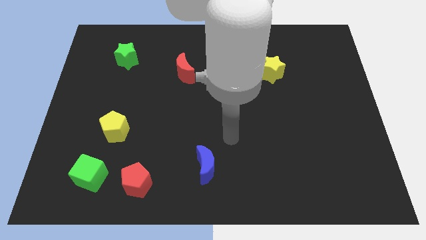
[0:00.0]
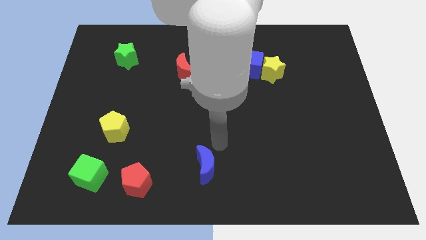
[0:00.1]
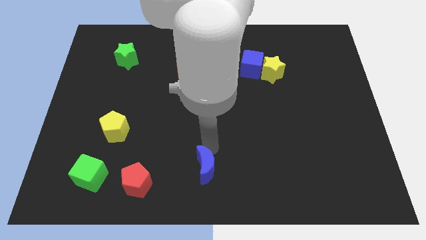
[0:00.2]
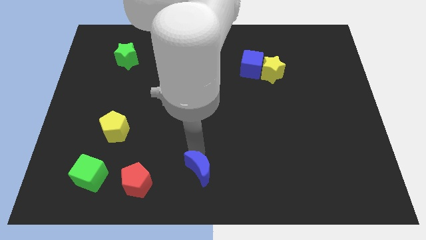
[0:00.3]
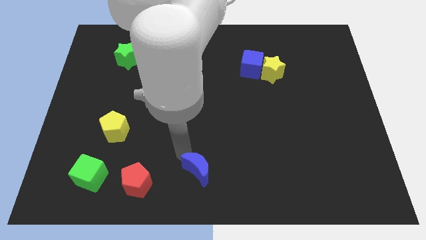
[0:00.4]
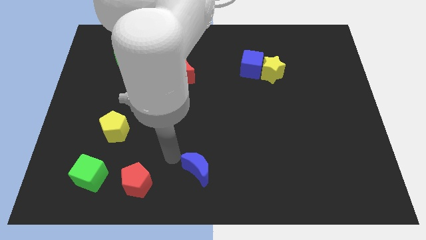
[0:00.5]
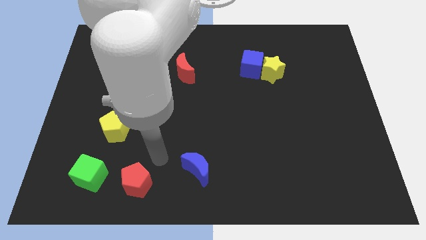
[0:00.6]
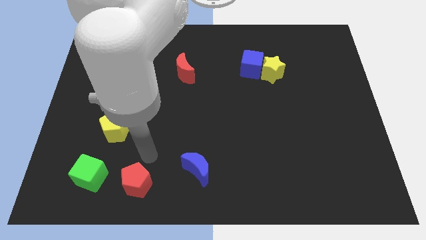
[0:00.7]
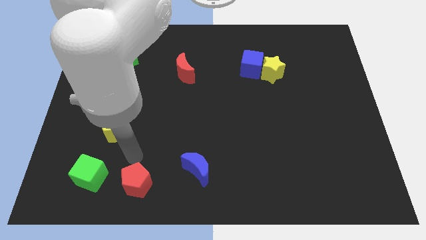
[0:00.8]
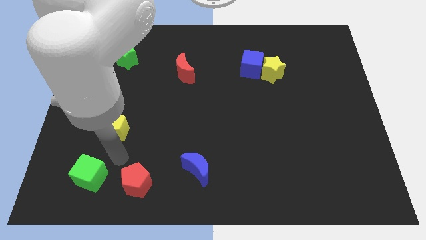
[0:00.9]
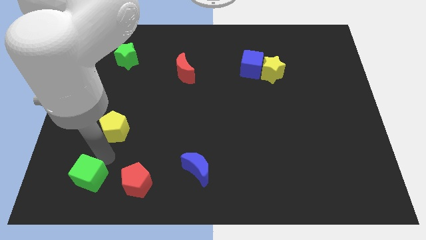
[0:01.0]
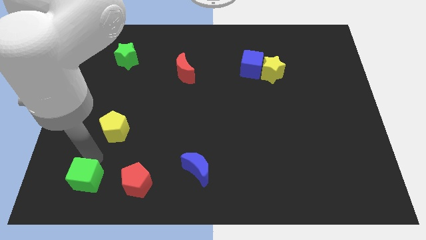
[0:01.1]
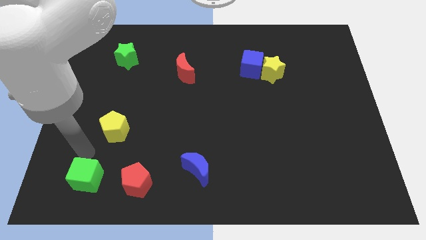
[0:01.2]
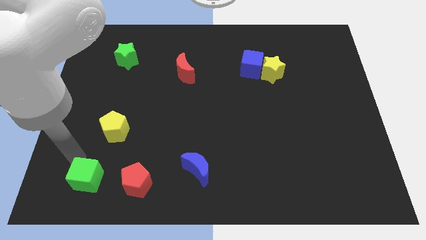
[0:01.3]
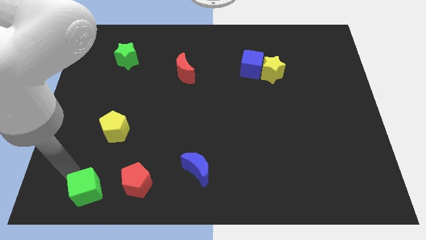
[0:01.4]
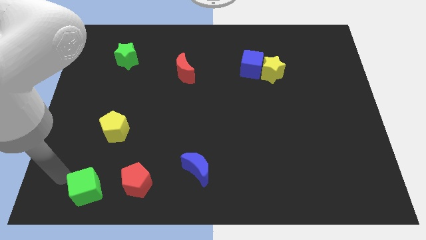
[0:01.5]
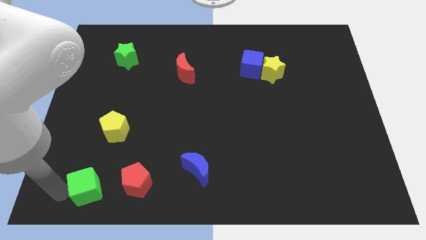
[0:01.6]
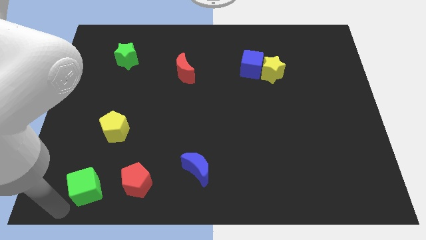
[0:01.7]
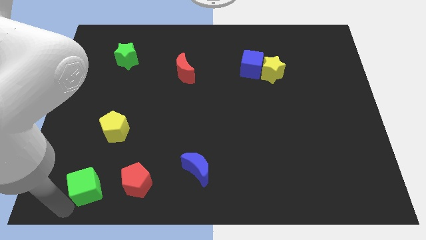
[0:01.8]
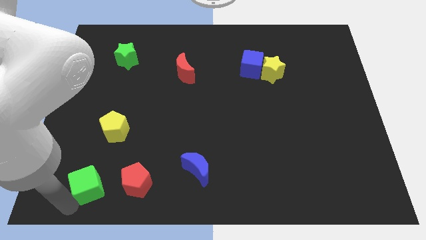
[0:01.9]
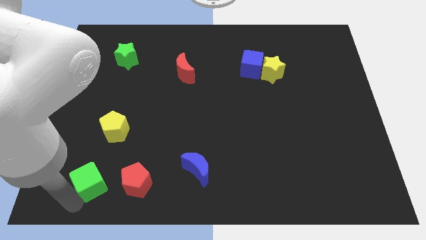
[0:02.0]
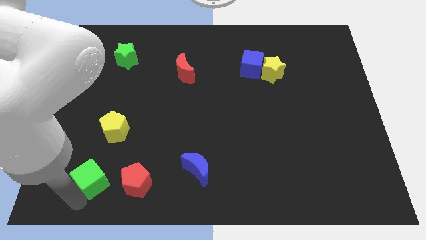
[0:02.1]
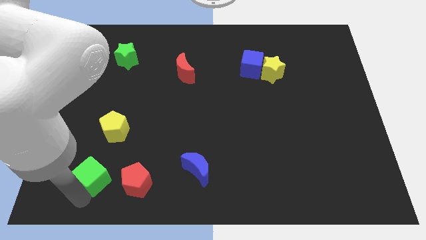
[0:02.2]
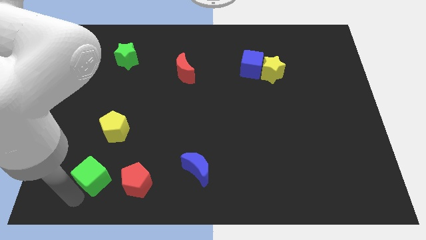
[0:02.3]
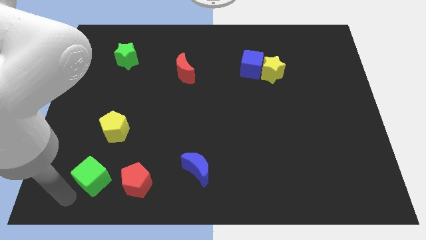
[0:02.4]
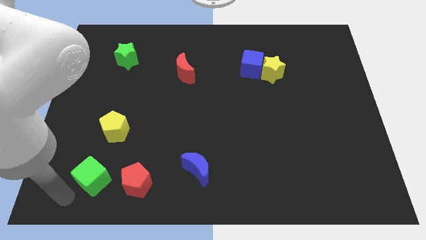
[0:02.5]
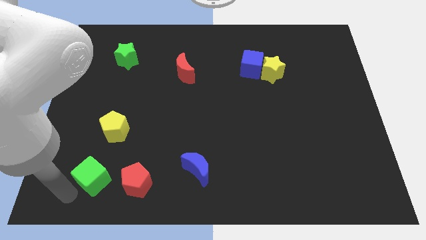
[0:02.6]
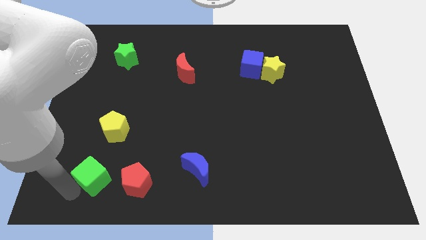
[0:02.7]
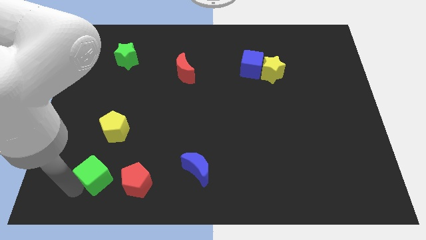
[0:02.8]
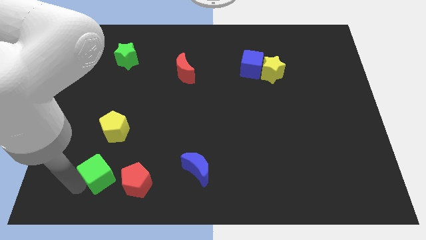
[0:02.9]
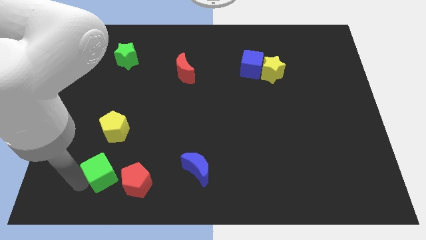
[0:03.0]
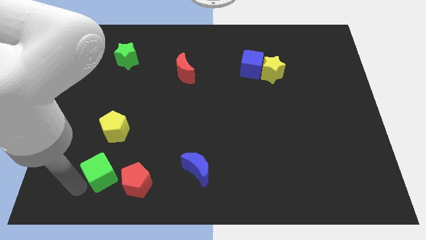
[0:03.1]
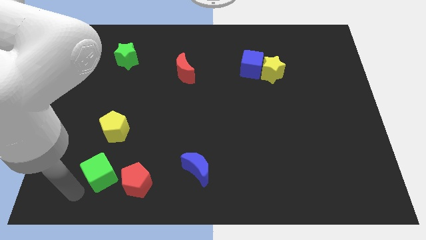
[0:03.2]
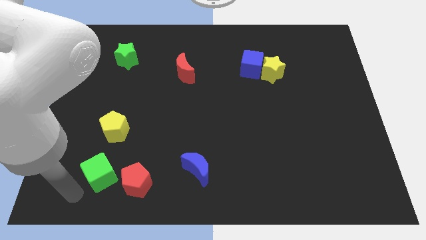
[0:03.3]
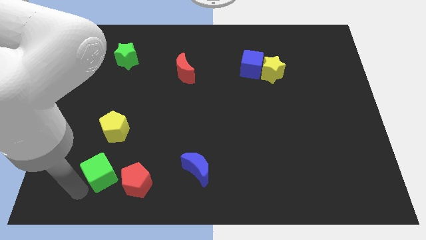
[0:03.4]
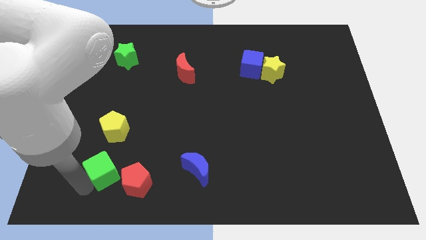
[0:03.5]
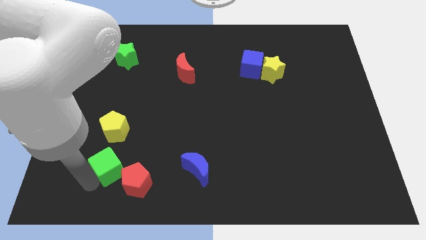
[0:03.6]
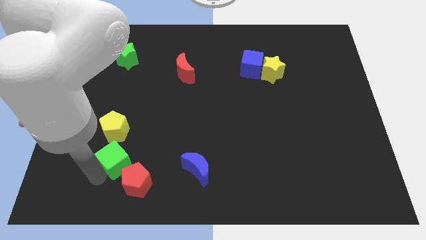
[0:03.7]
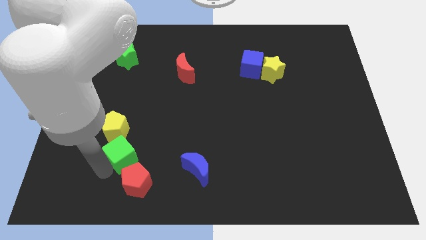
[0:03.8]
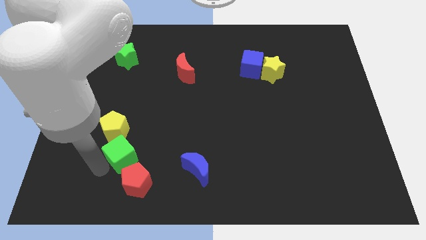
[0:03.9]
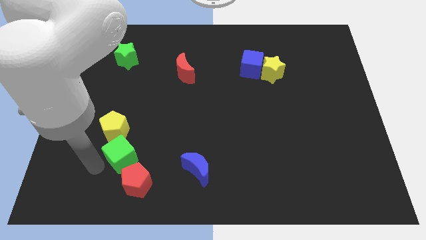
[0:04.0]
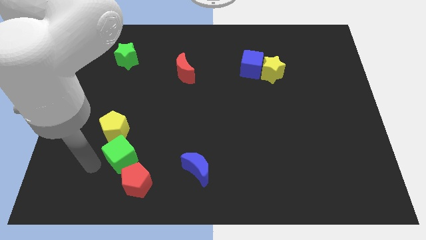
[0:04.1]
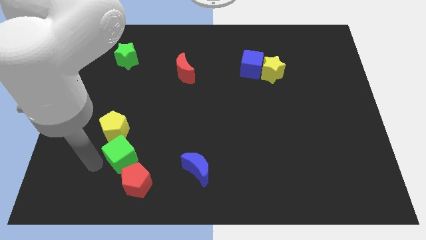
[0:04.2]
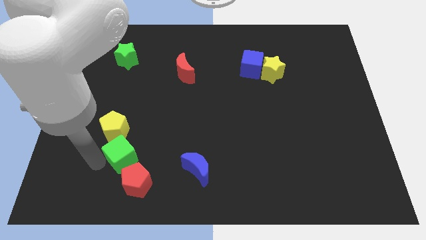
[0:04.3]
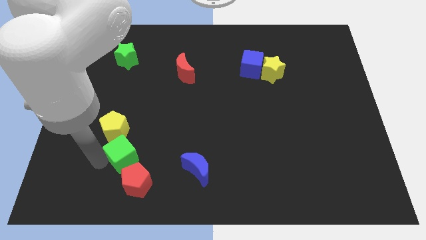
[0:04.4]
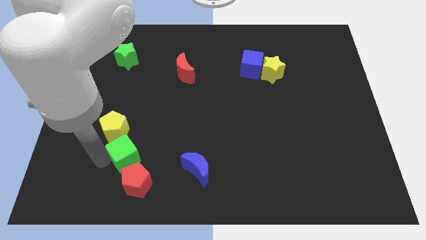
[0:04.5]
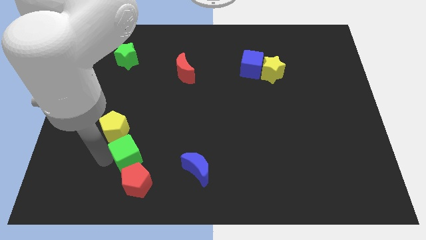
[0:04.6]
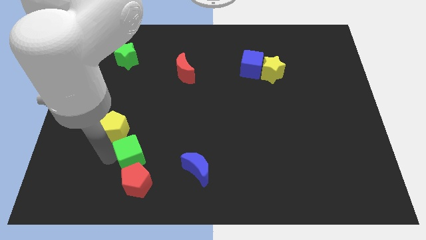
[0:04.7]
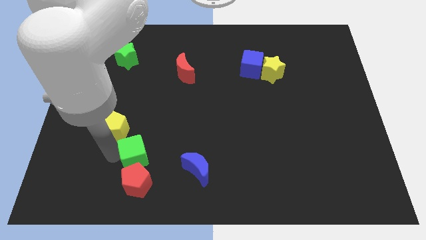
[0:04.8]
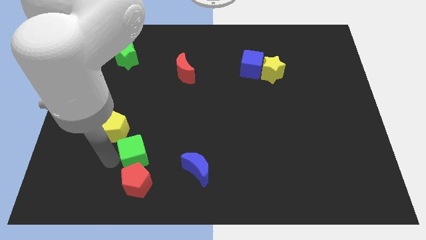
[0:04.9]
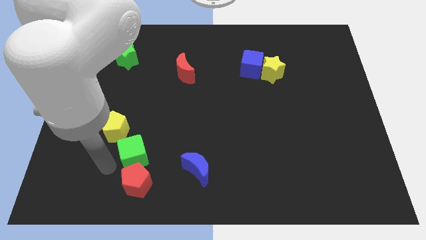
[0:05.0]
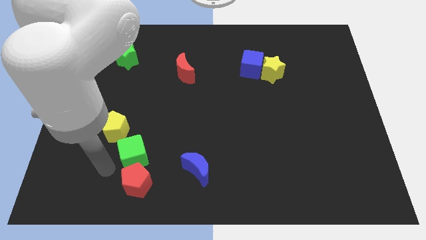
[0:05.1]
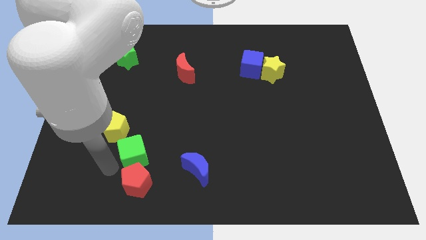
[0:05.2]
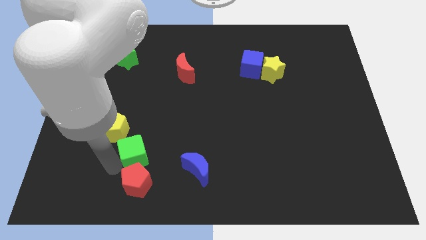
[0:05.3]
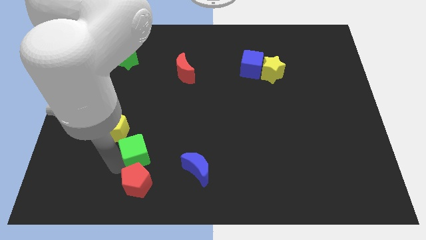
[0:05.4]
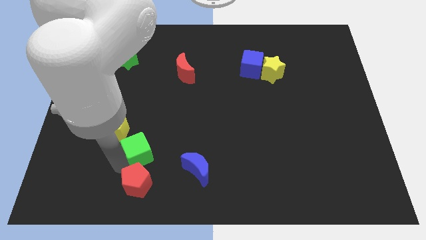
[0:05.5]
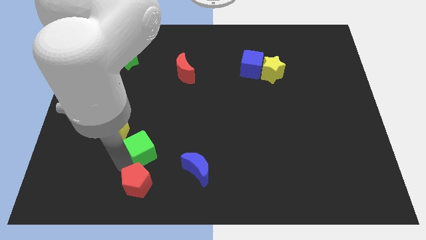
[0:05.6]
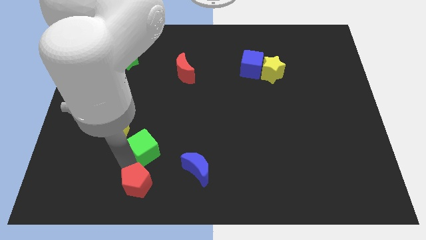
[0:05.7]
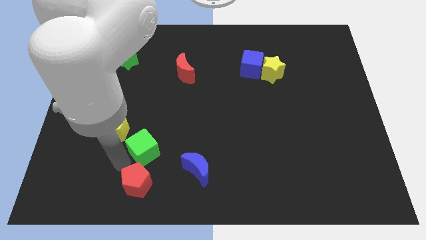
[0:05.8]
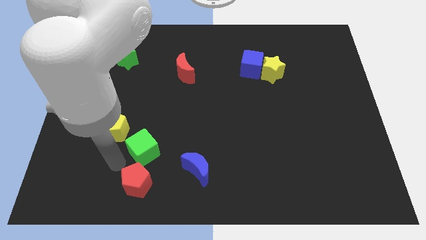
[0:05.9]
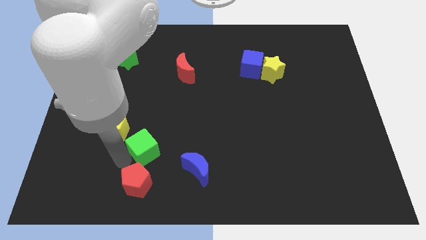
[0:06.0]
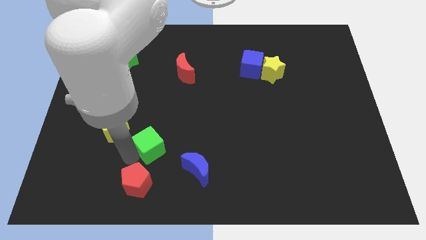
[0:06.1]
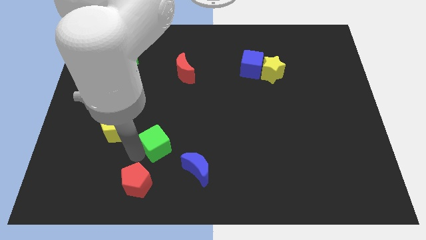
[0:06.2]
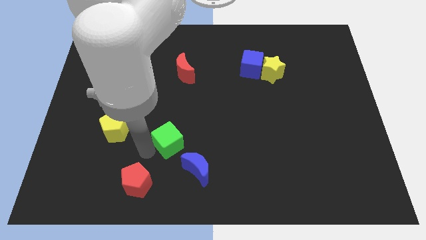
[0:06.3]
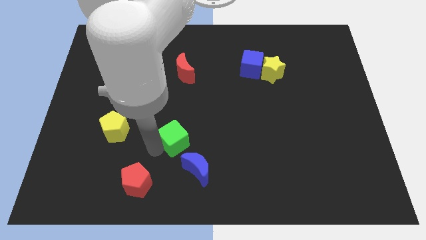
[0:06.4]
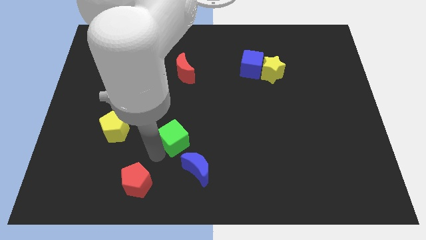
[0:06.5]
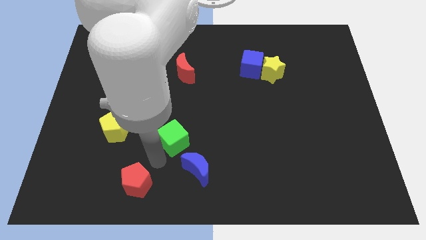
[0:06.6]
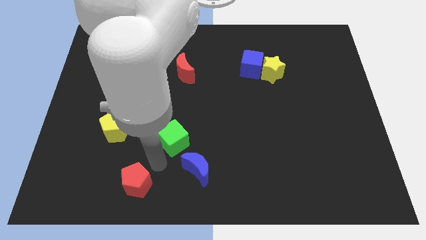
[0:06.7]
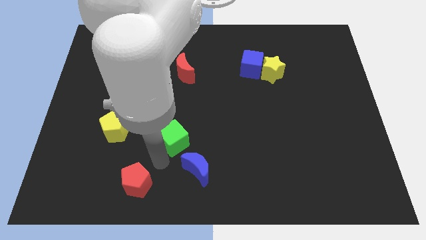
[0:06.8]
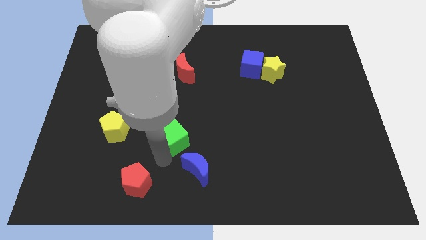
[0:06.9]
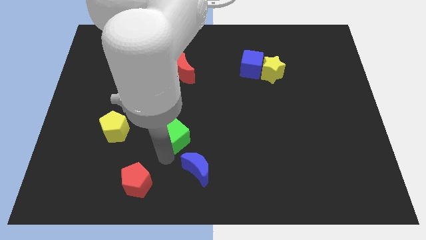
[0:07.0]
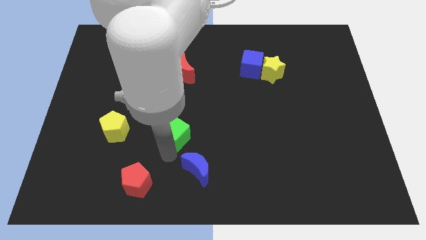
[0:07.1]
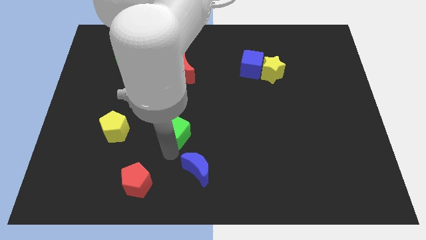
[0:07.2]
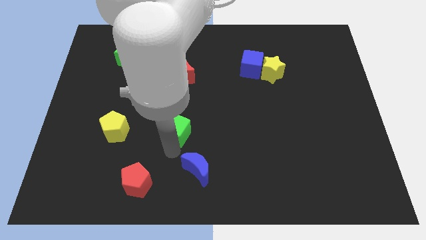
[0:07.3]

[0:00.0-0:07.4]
slide the green cube to the center
